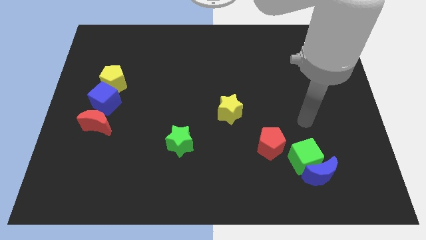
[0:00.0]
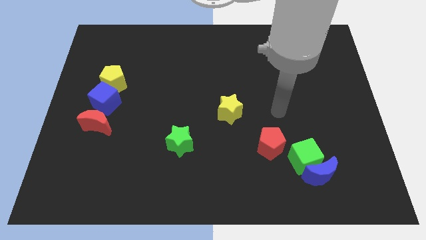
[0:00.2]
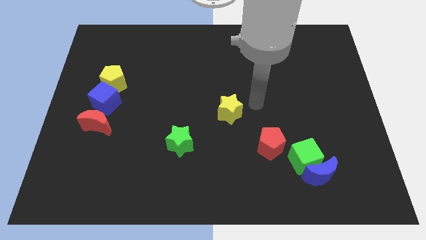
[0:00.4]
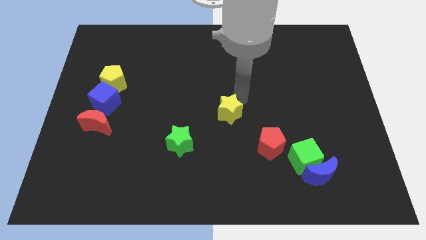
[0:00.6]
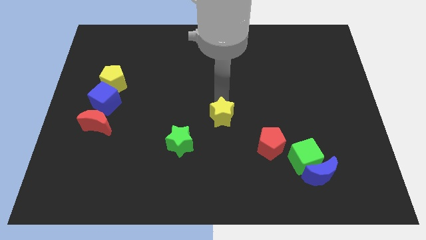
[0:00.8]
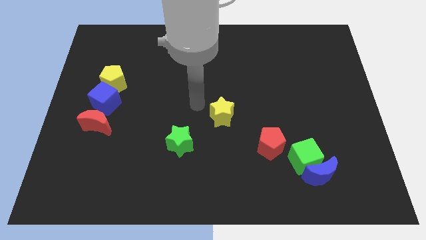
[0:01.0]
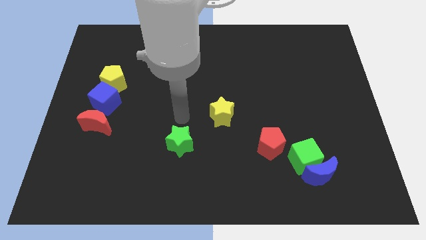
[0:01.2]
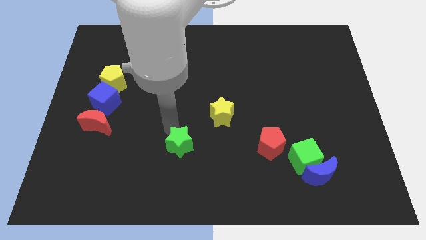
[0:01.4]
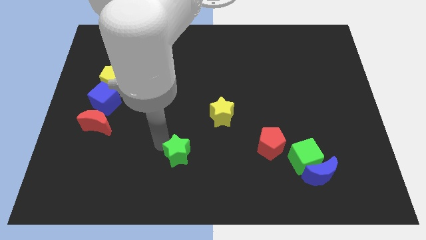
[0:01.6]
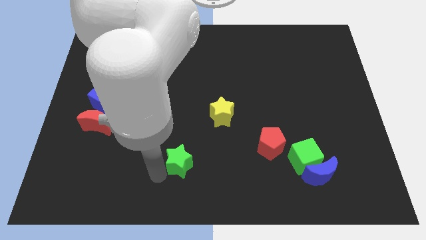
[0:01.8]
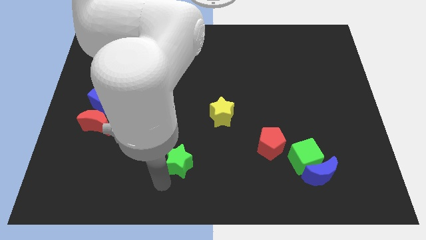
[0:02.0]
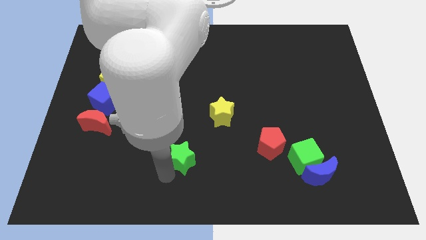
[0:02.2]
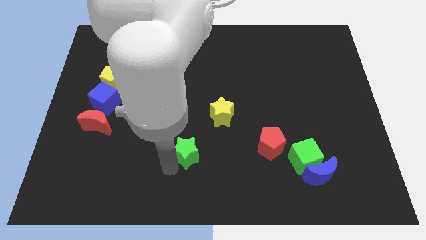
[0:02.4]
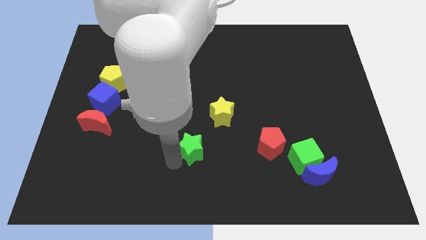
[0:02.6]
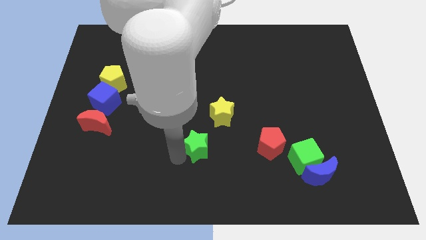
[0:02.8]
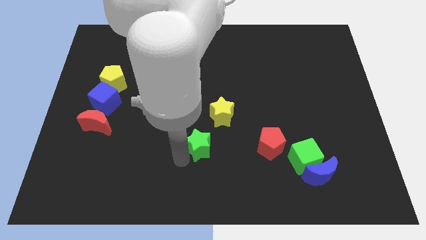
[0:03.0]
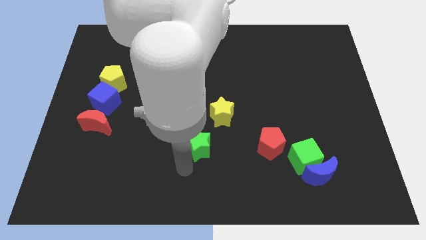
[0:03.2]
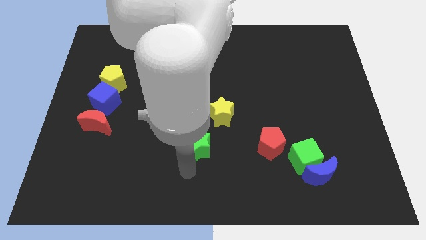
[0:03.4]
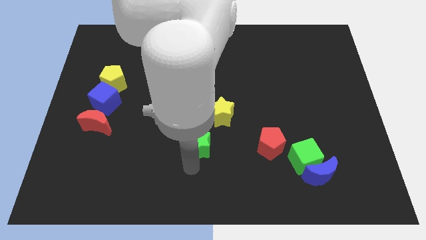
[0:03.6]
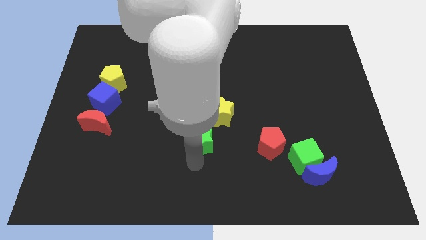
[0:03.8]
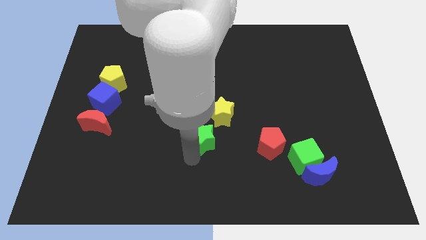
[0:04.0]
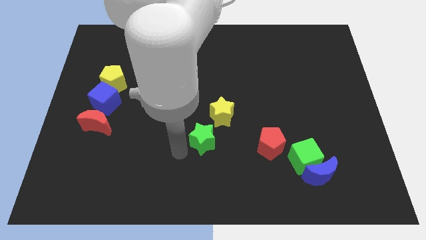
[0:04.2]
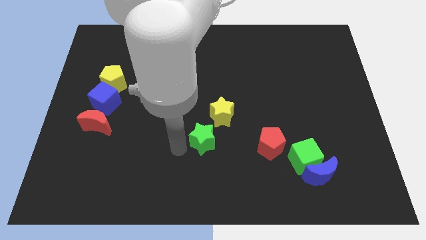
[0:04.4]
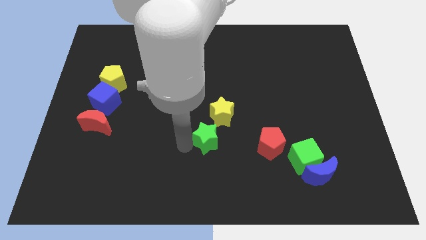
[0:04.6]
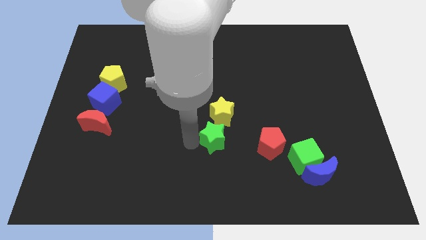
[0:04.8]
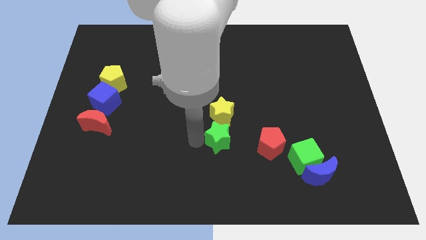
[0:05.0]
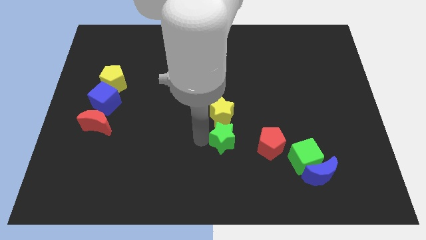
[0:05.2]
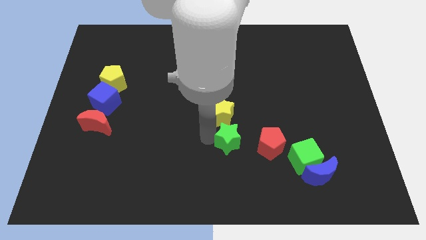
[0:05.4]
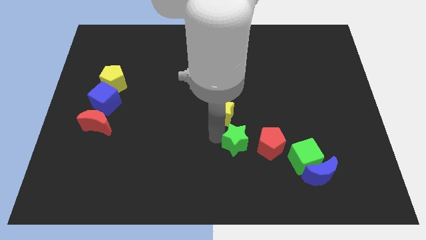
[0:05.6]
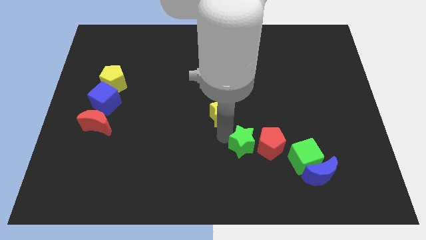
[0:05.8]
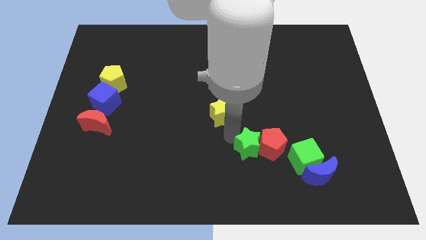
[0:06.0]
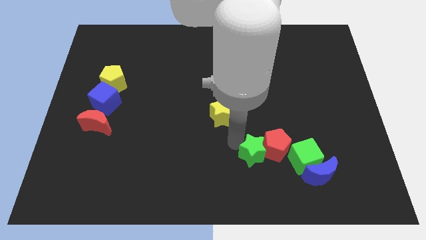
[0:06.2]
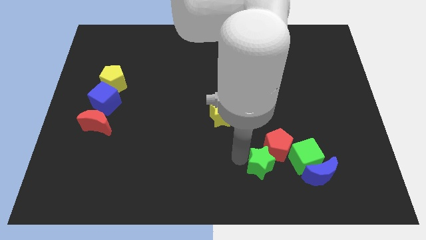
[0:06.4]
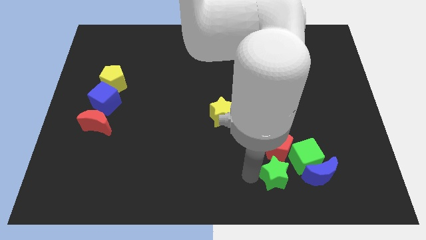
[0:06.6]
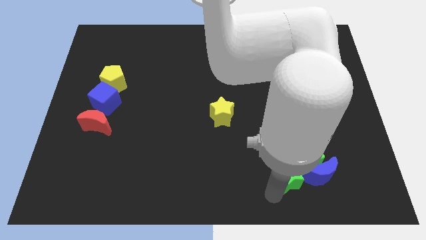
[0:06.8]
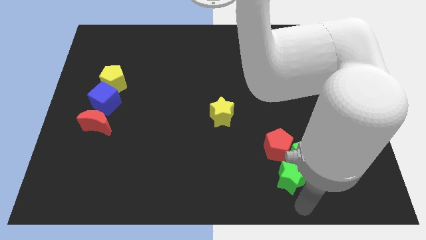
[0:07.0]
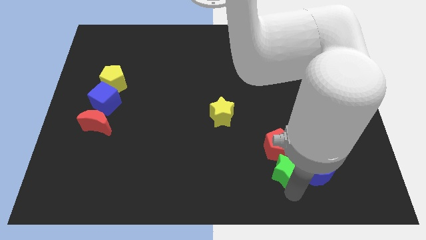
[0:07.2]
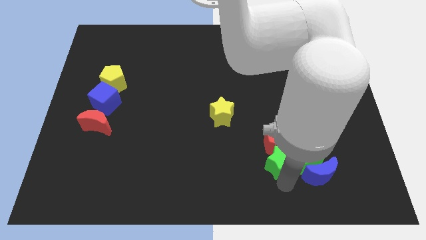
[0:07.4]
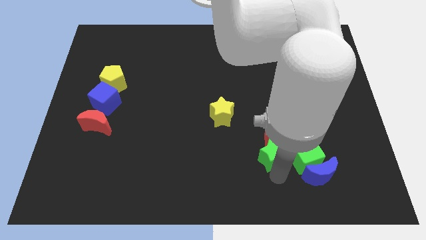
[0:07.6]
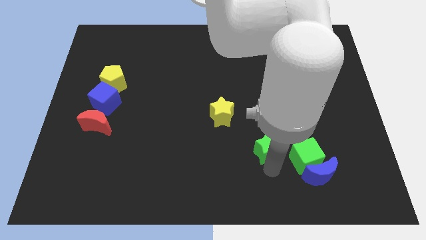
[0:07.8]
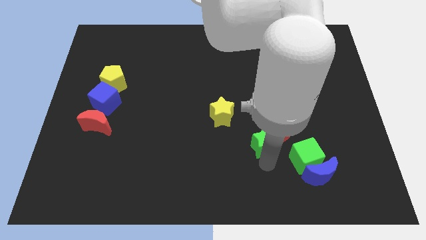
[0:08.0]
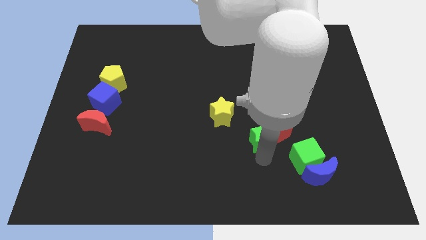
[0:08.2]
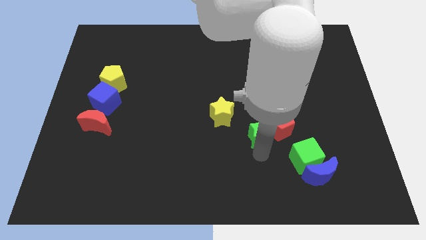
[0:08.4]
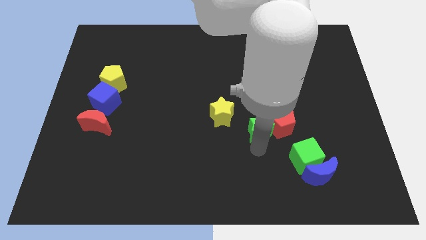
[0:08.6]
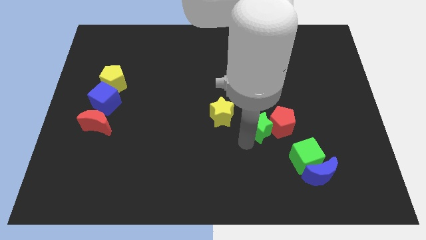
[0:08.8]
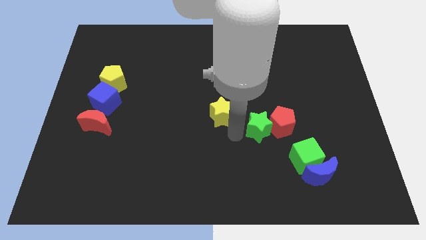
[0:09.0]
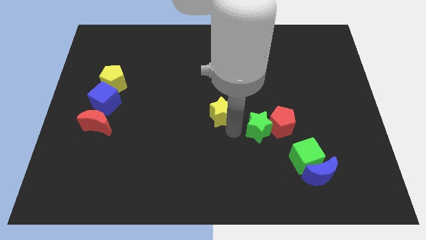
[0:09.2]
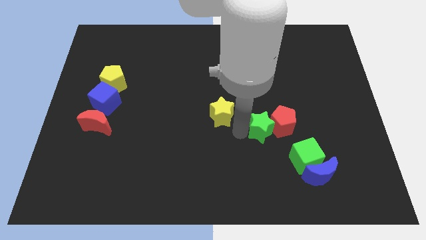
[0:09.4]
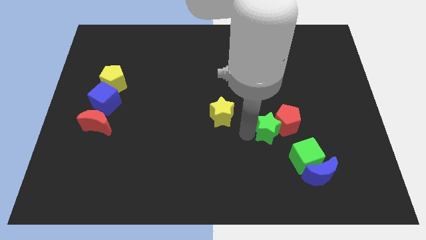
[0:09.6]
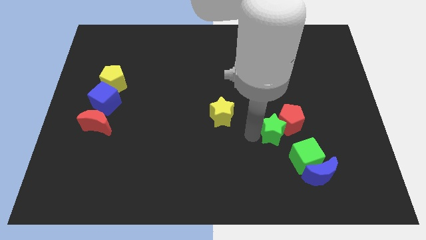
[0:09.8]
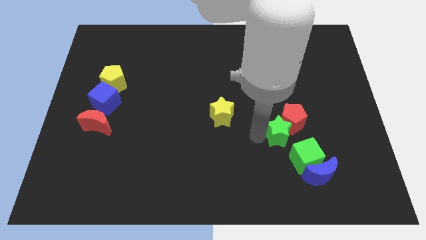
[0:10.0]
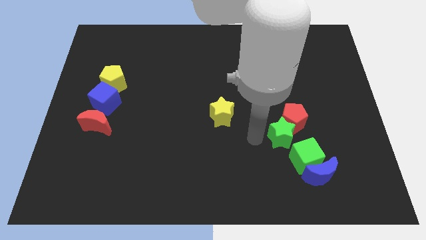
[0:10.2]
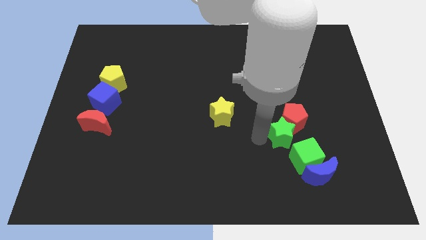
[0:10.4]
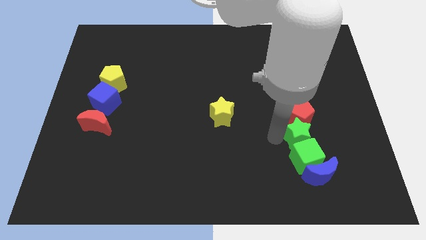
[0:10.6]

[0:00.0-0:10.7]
push the green star to the top of the blue moon

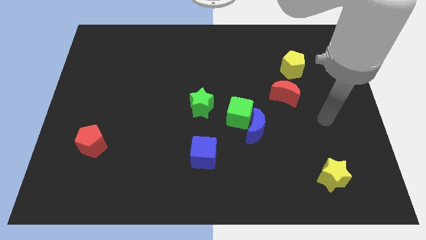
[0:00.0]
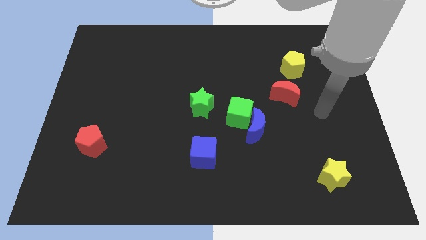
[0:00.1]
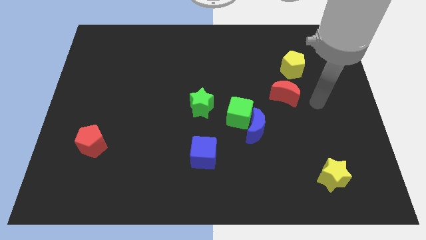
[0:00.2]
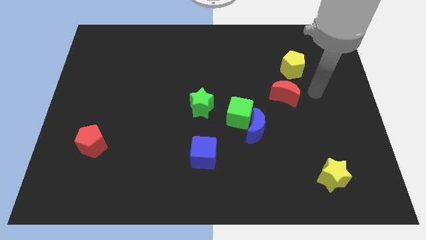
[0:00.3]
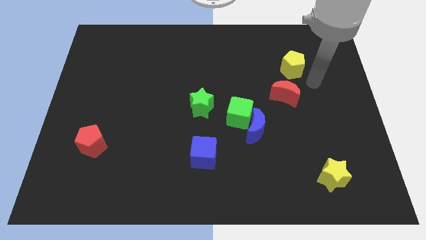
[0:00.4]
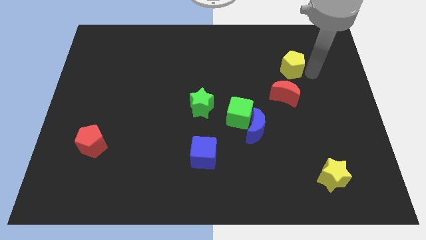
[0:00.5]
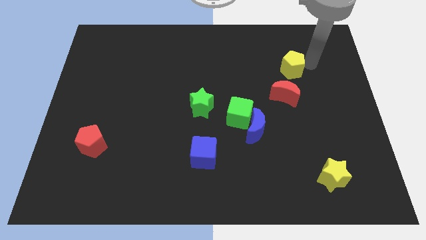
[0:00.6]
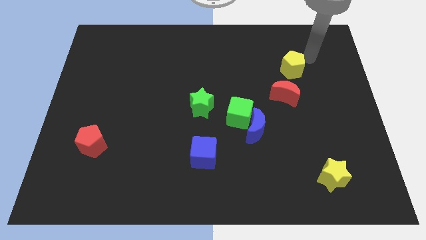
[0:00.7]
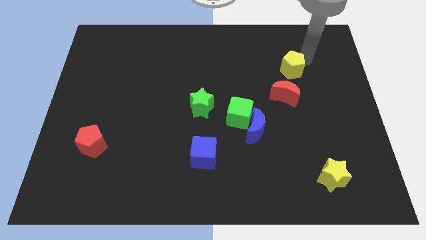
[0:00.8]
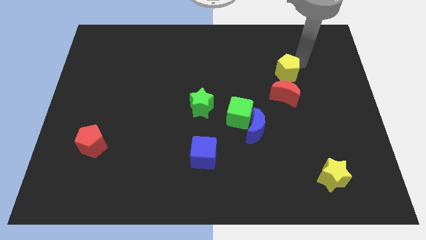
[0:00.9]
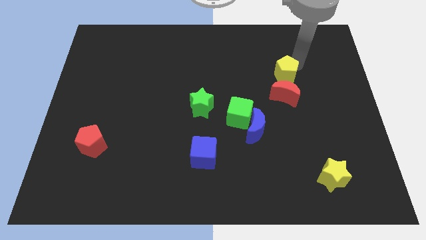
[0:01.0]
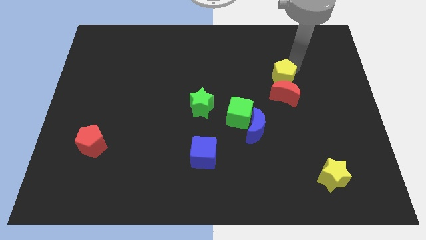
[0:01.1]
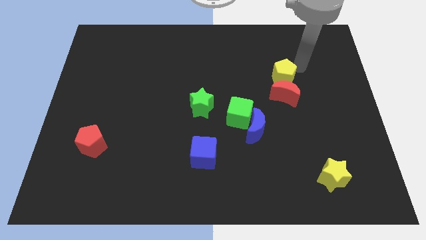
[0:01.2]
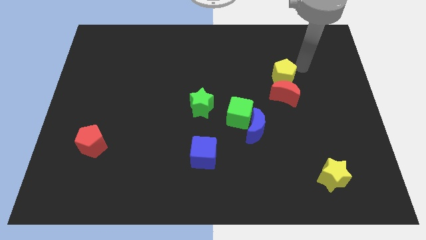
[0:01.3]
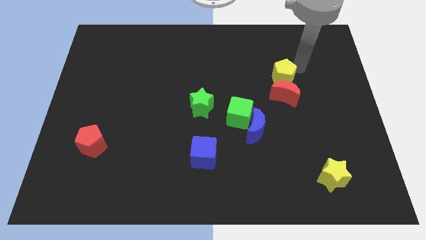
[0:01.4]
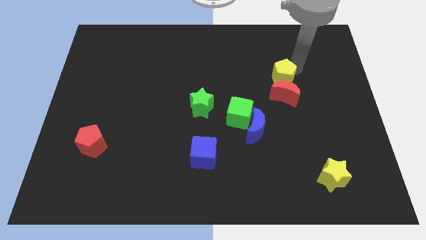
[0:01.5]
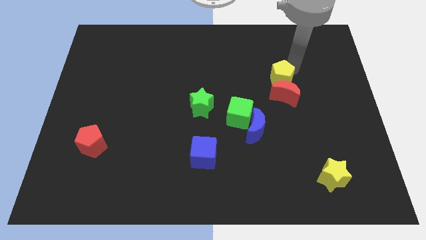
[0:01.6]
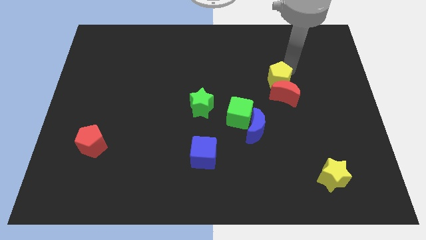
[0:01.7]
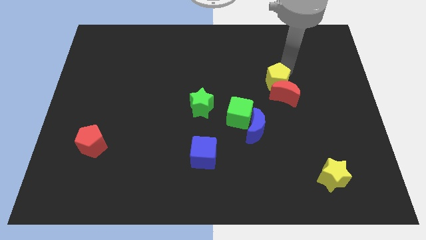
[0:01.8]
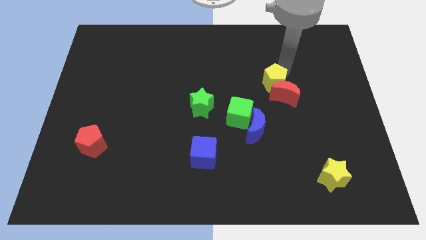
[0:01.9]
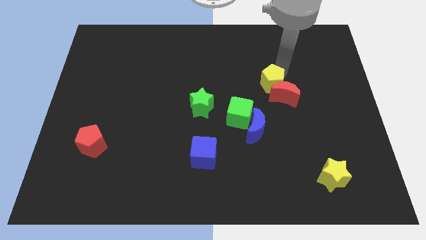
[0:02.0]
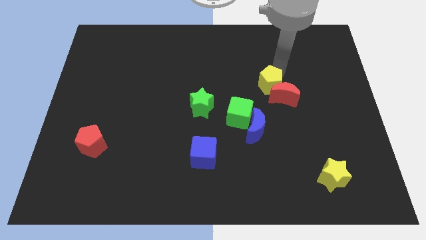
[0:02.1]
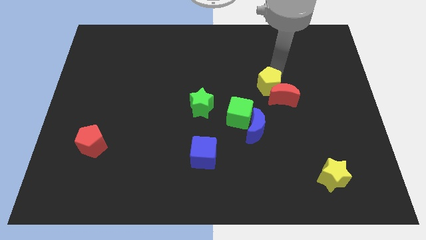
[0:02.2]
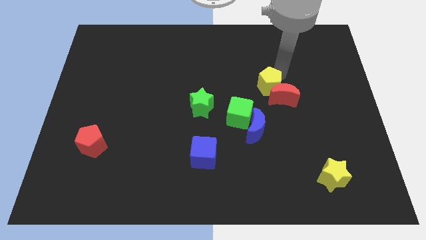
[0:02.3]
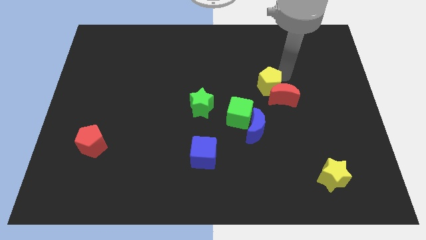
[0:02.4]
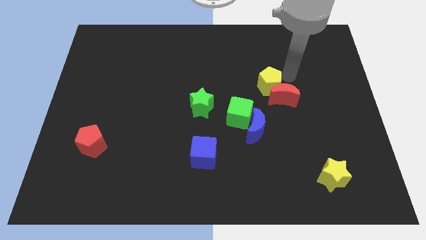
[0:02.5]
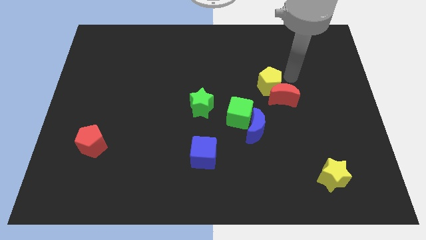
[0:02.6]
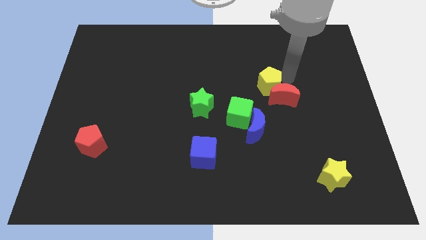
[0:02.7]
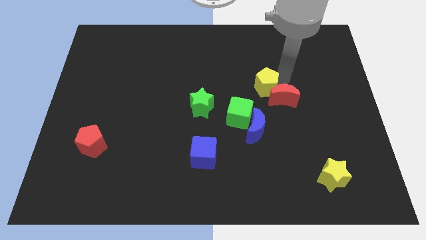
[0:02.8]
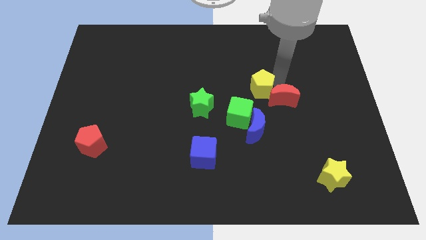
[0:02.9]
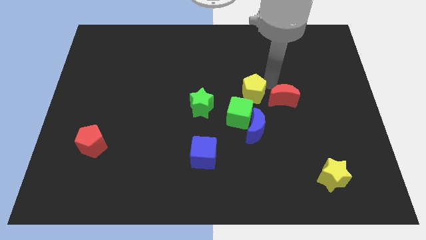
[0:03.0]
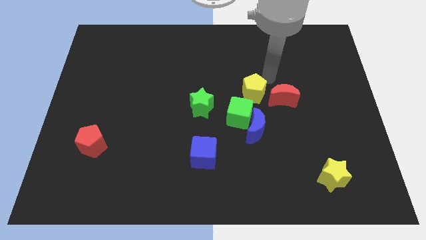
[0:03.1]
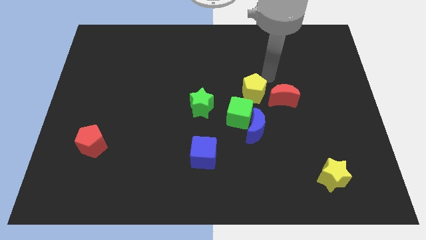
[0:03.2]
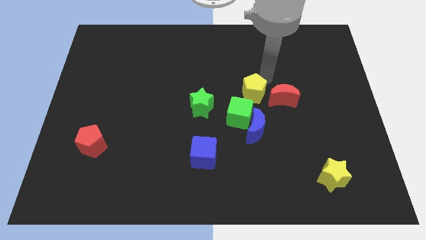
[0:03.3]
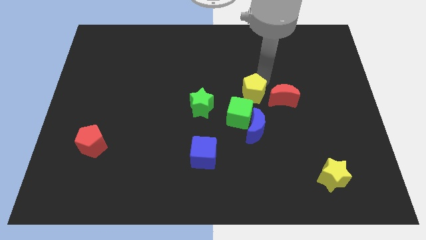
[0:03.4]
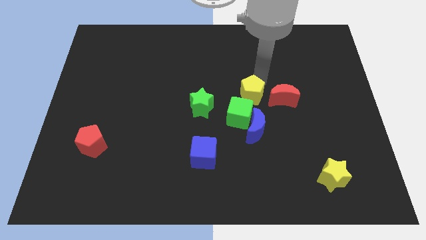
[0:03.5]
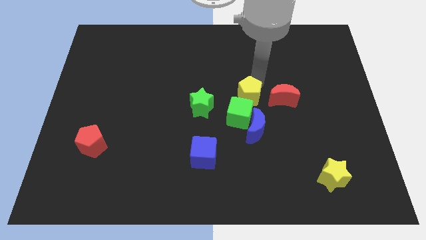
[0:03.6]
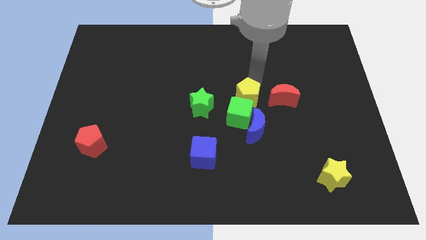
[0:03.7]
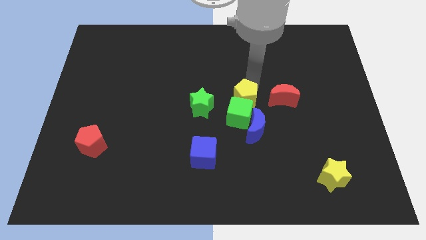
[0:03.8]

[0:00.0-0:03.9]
push the yellow pentagon to the top left of the blue moon
